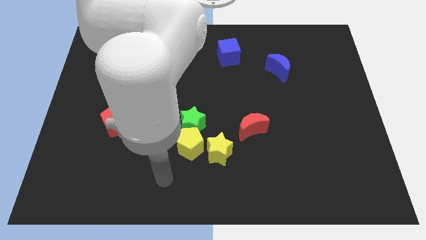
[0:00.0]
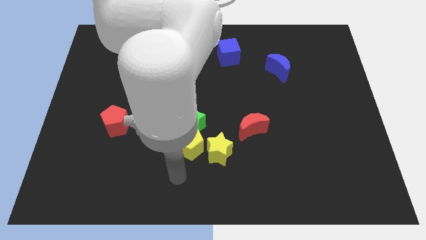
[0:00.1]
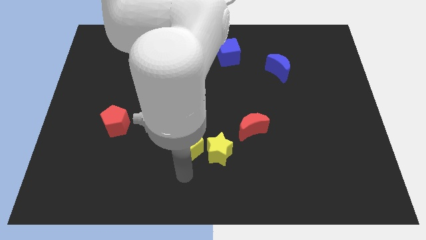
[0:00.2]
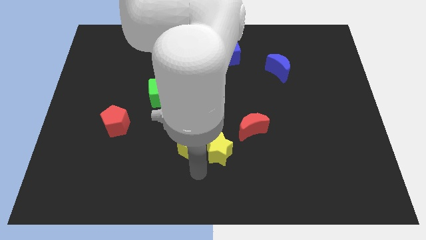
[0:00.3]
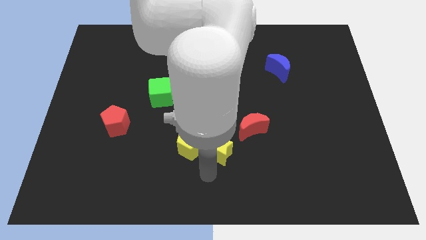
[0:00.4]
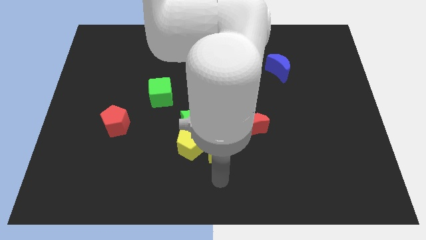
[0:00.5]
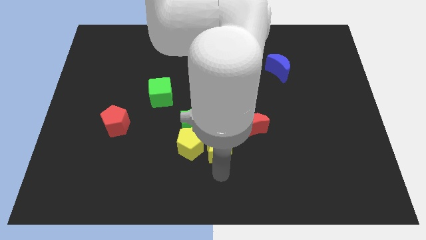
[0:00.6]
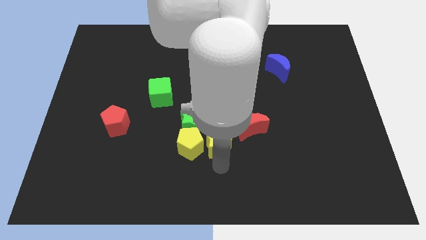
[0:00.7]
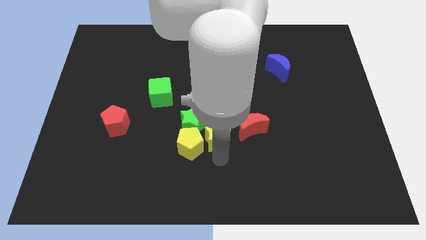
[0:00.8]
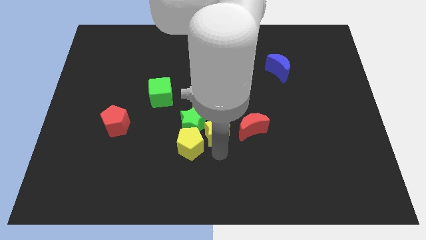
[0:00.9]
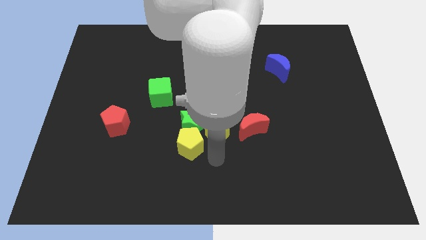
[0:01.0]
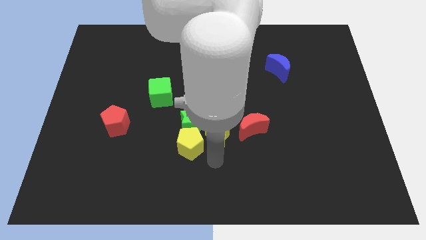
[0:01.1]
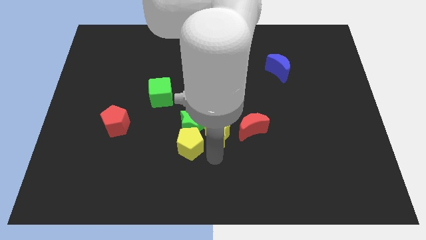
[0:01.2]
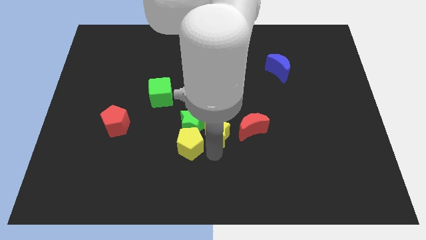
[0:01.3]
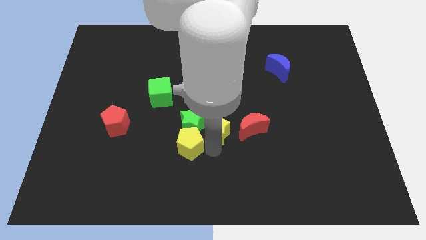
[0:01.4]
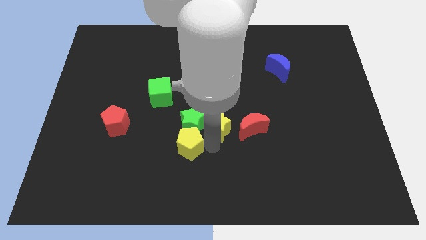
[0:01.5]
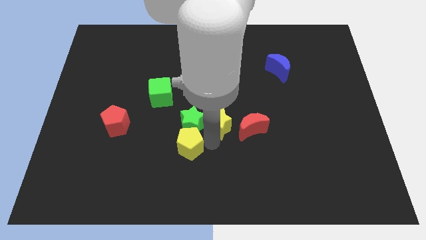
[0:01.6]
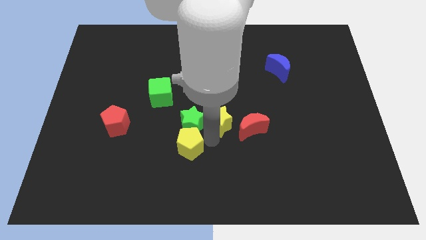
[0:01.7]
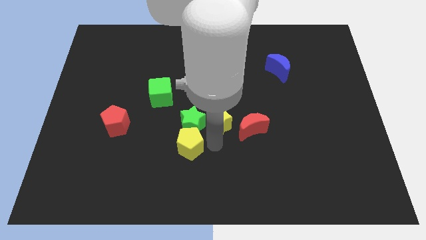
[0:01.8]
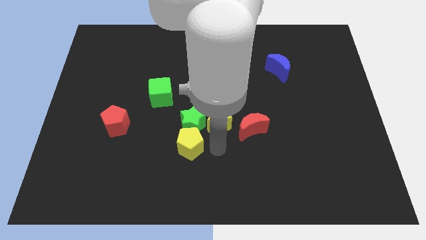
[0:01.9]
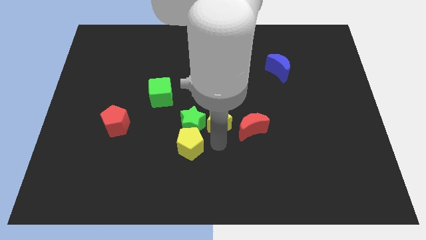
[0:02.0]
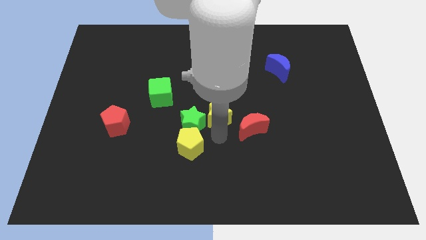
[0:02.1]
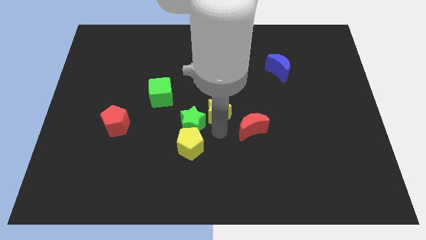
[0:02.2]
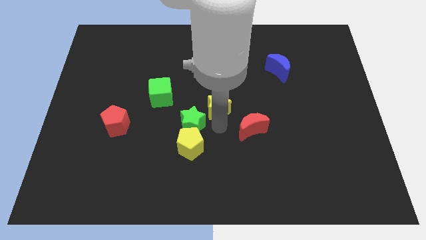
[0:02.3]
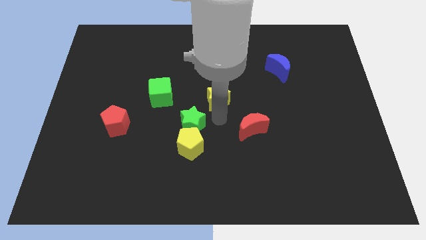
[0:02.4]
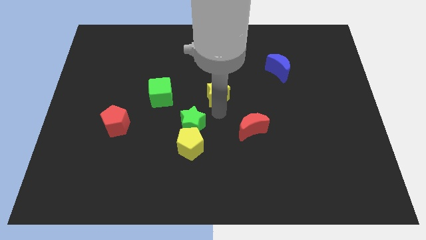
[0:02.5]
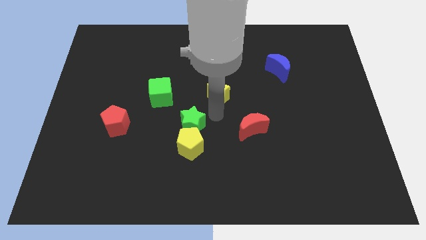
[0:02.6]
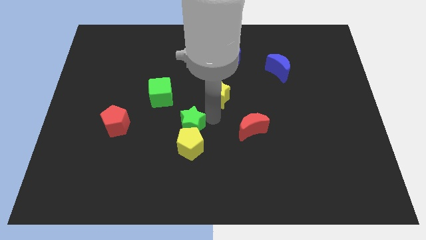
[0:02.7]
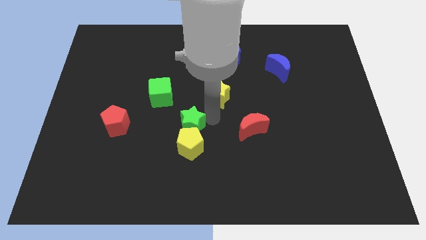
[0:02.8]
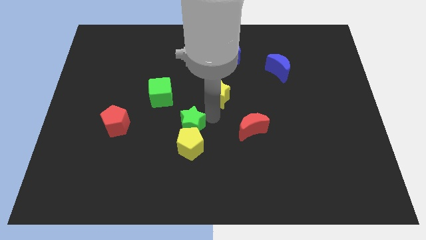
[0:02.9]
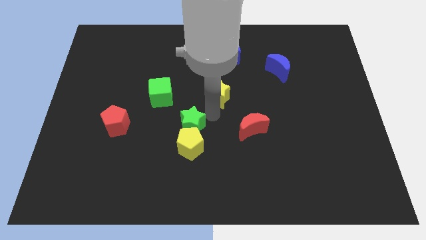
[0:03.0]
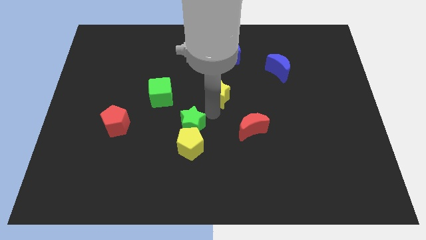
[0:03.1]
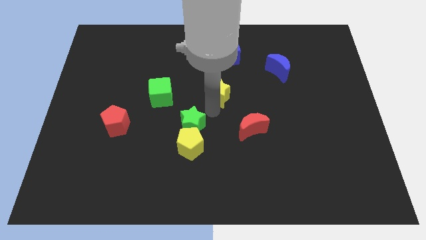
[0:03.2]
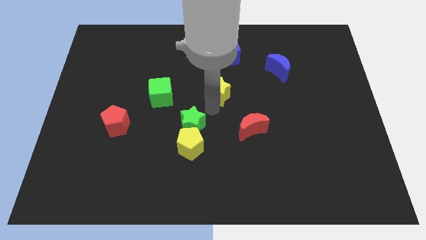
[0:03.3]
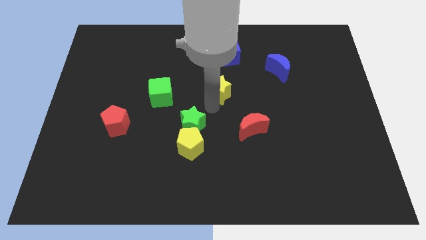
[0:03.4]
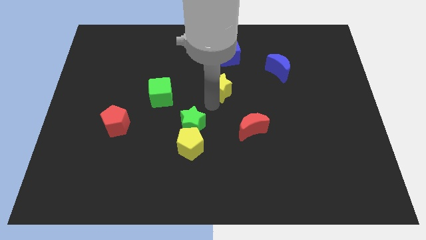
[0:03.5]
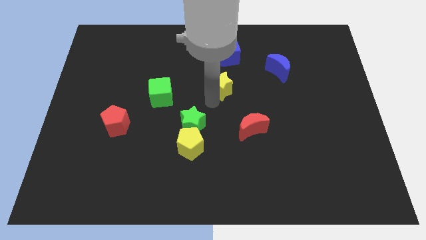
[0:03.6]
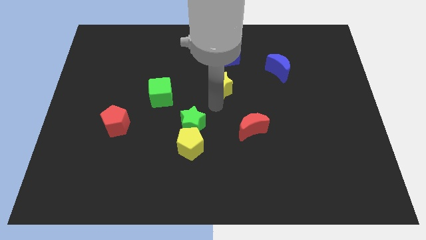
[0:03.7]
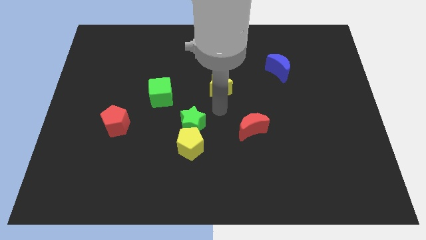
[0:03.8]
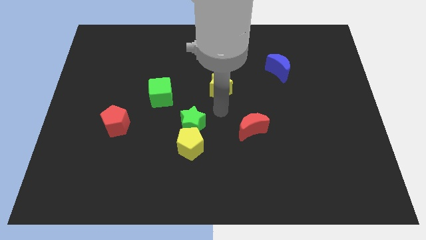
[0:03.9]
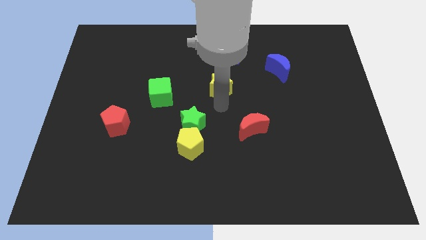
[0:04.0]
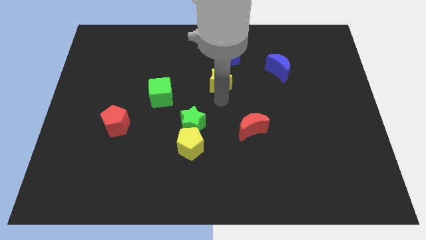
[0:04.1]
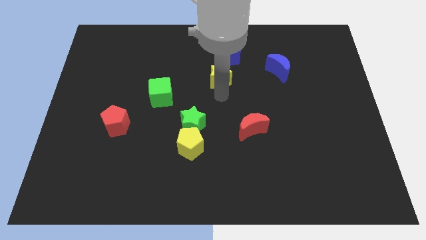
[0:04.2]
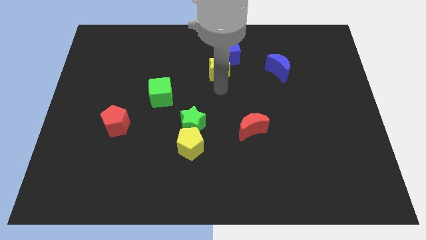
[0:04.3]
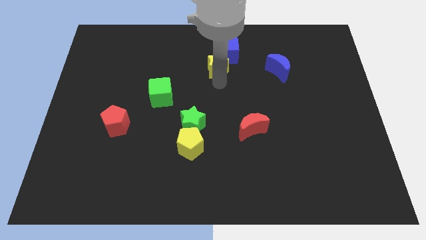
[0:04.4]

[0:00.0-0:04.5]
put the yellow star next to the blue cube

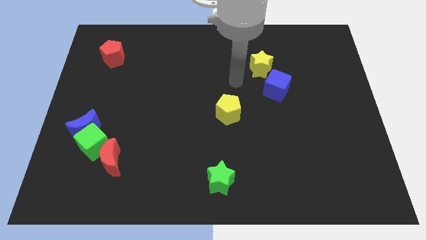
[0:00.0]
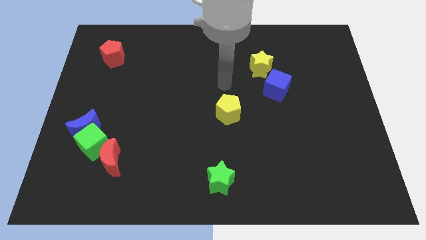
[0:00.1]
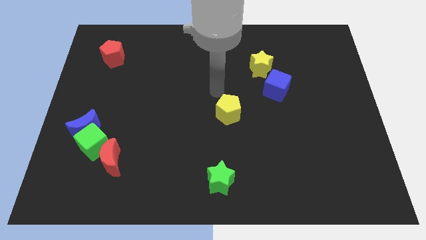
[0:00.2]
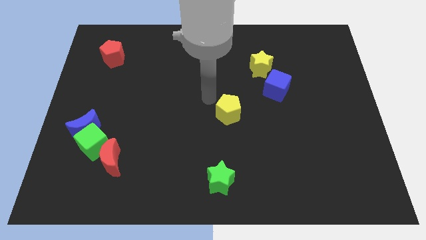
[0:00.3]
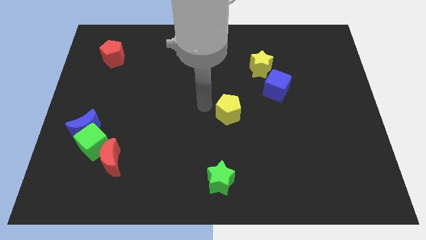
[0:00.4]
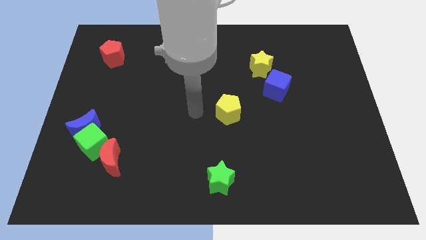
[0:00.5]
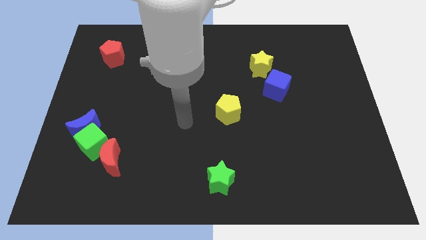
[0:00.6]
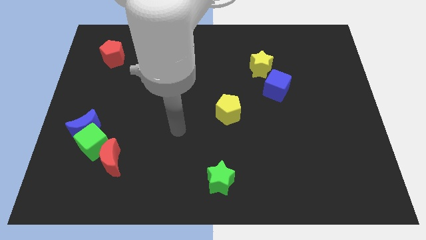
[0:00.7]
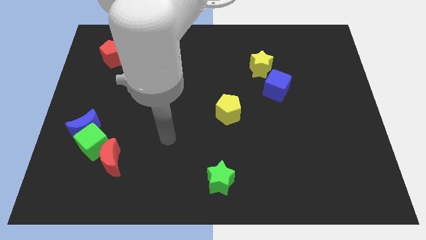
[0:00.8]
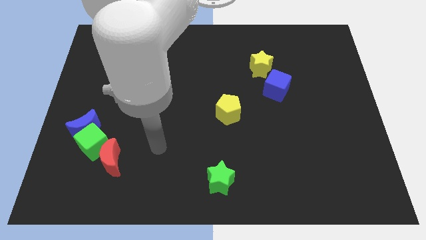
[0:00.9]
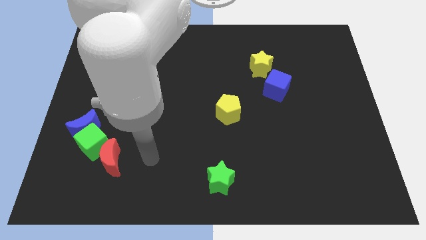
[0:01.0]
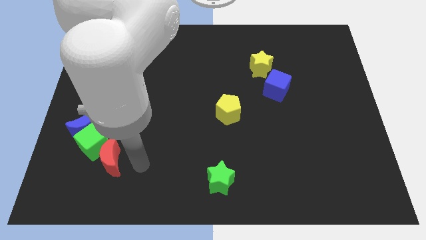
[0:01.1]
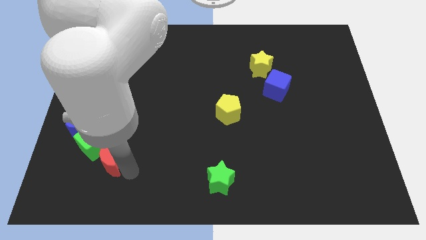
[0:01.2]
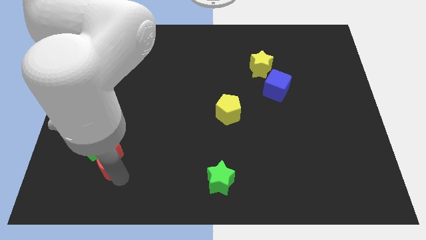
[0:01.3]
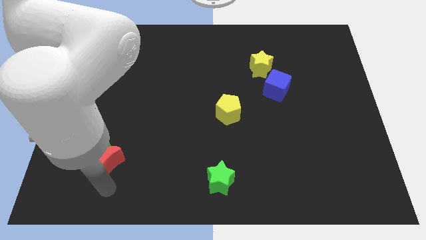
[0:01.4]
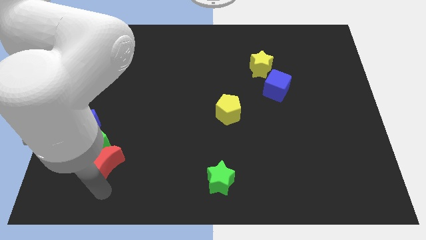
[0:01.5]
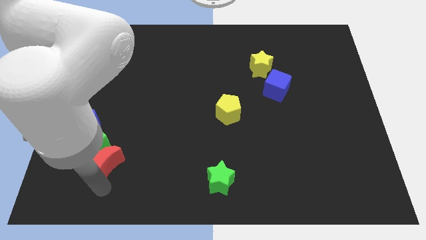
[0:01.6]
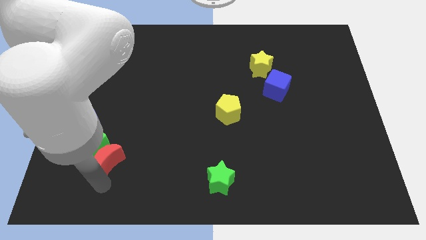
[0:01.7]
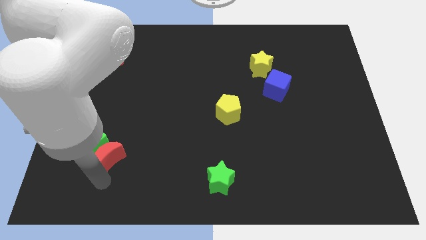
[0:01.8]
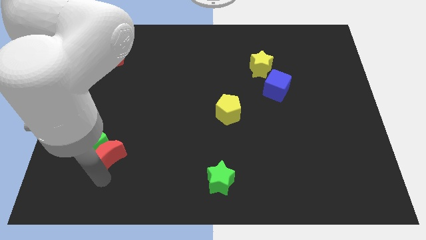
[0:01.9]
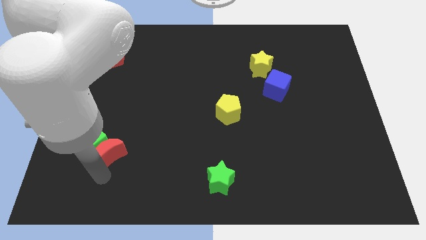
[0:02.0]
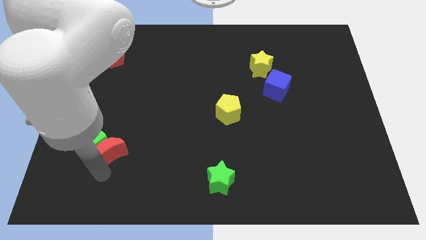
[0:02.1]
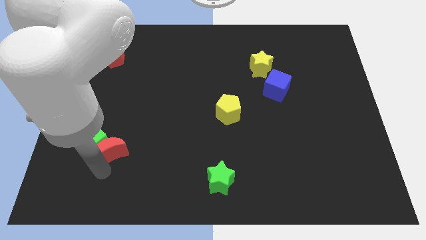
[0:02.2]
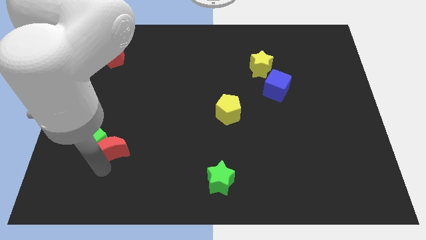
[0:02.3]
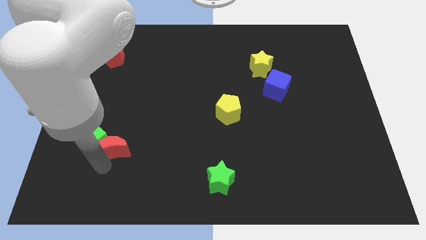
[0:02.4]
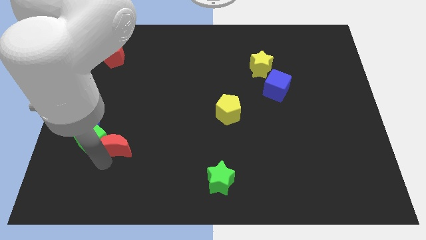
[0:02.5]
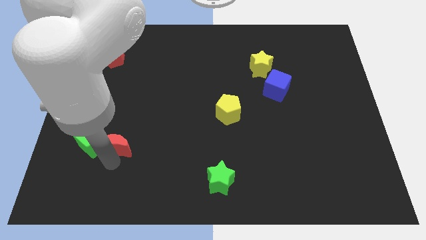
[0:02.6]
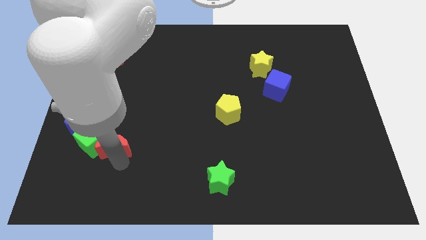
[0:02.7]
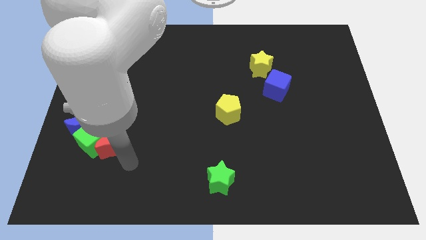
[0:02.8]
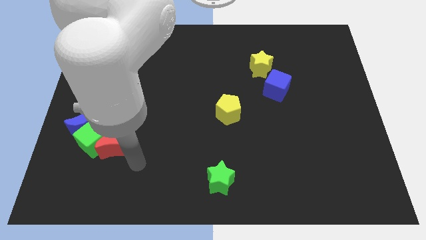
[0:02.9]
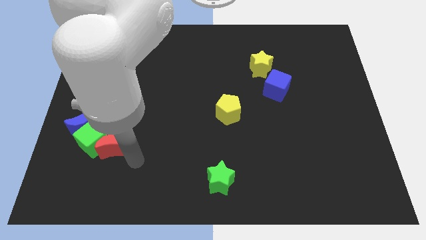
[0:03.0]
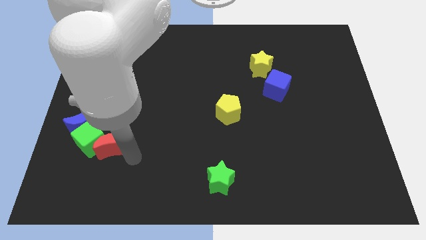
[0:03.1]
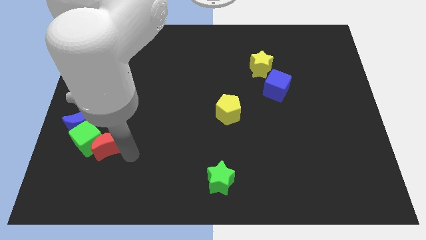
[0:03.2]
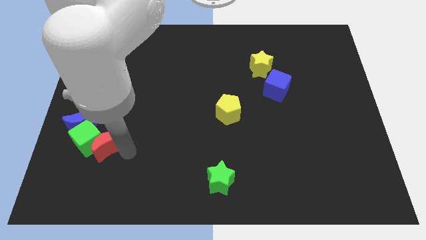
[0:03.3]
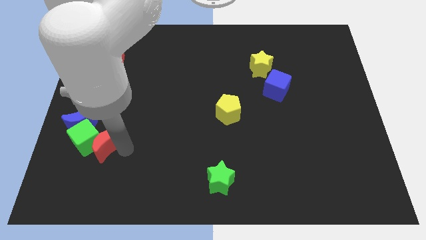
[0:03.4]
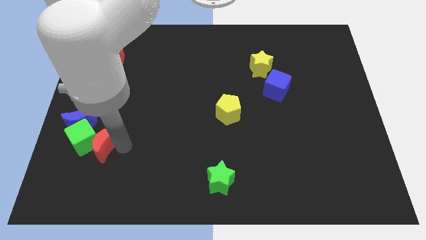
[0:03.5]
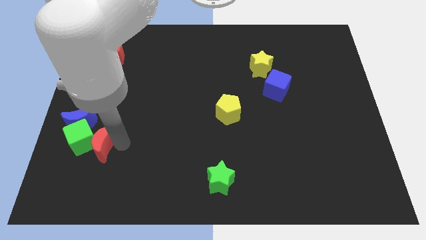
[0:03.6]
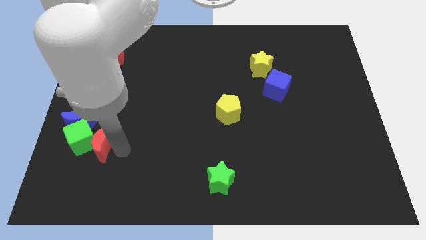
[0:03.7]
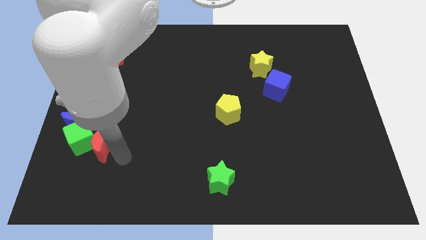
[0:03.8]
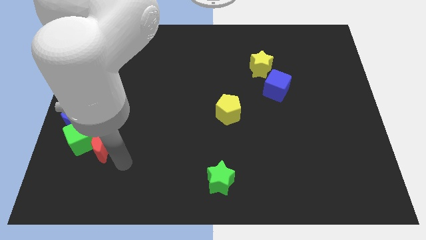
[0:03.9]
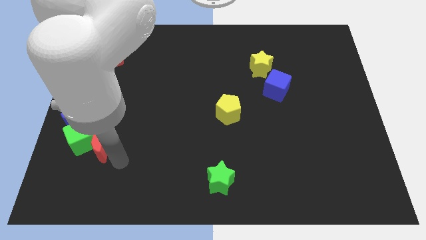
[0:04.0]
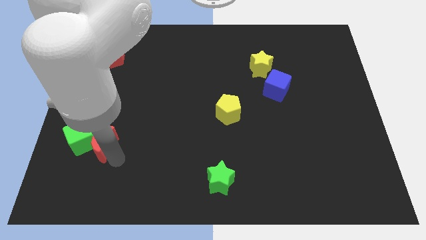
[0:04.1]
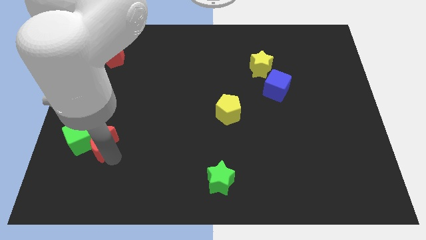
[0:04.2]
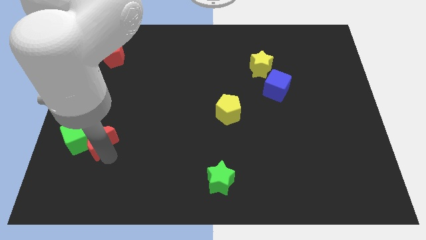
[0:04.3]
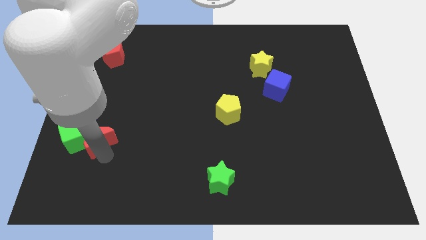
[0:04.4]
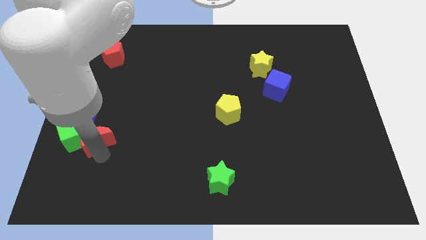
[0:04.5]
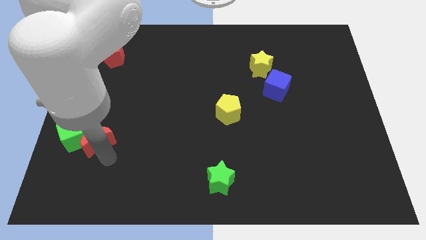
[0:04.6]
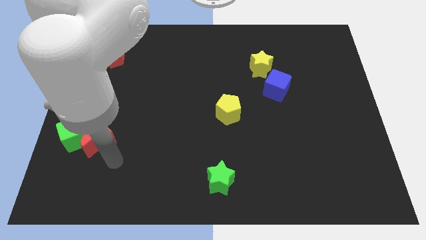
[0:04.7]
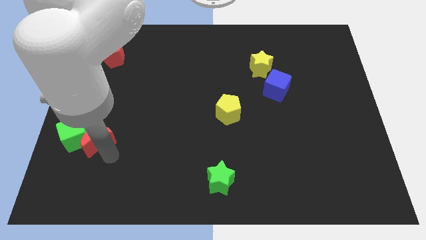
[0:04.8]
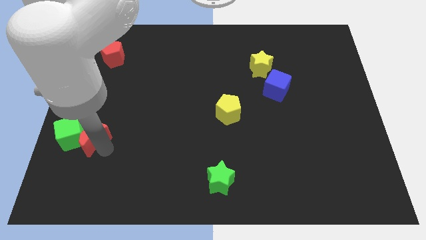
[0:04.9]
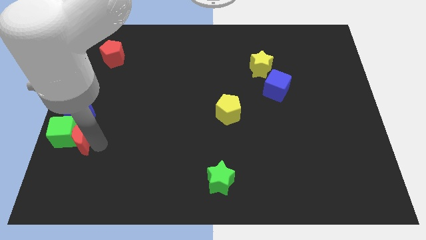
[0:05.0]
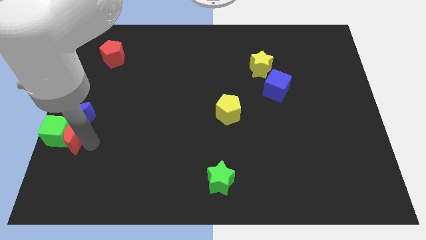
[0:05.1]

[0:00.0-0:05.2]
put the red moon towards the blue moon
